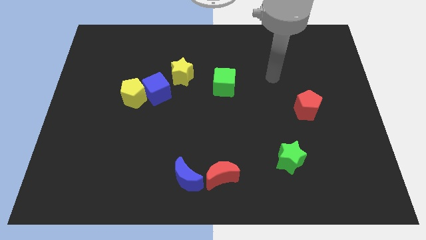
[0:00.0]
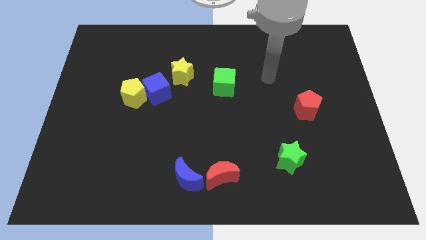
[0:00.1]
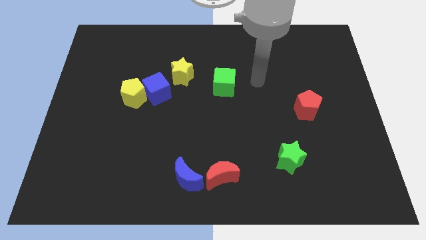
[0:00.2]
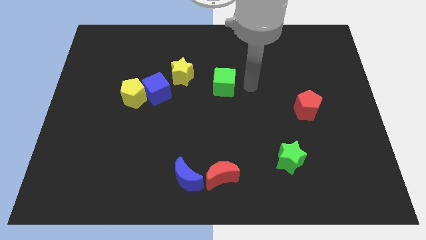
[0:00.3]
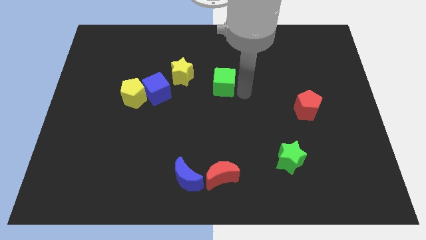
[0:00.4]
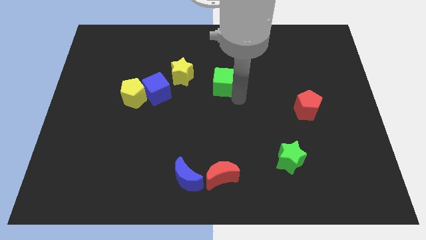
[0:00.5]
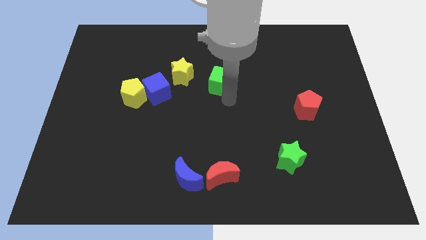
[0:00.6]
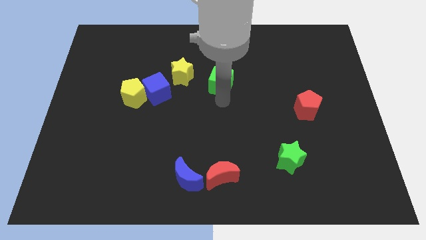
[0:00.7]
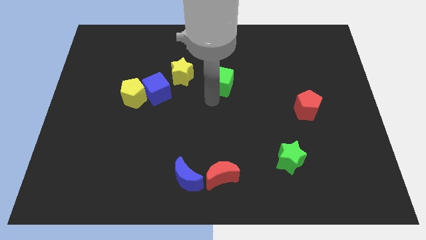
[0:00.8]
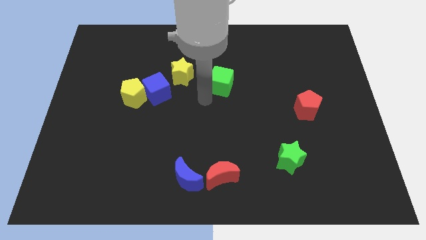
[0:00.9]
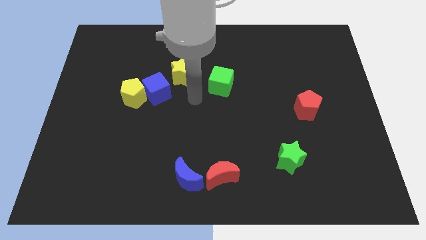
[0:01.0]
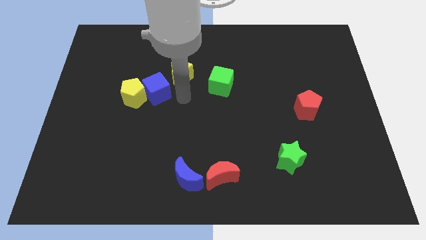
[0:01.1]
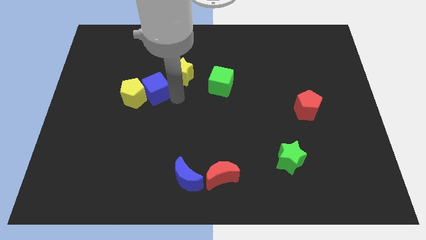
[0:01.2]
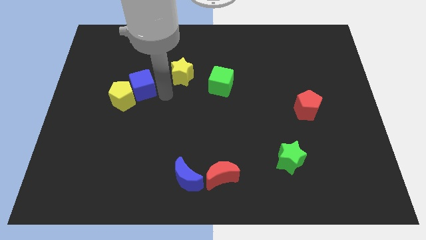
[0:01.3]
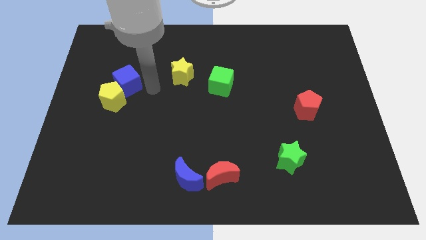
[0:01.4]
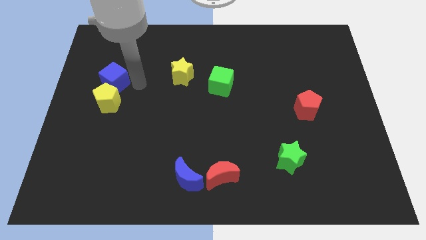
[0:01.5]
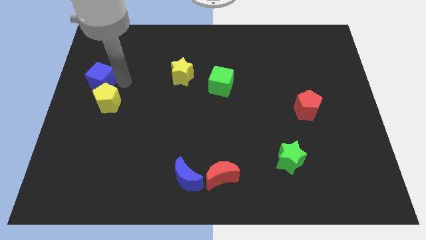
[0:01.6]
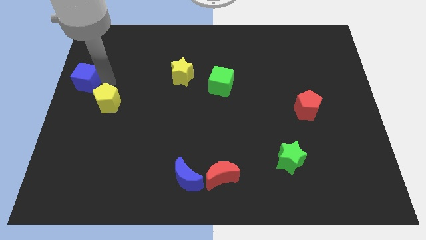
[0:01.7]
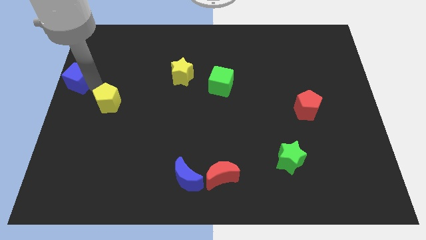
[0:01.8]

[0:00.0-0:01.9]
pull the yellow pentagon apart from the blue cube

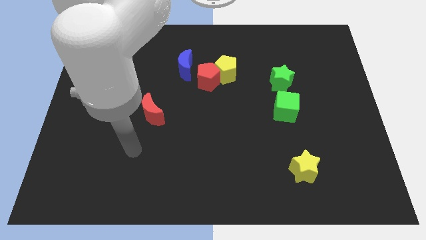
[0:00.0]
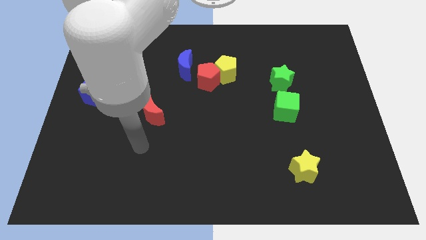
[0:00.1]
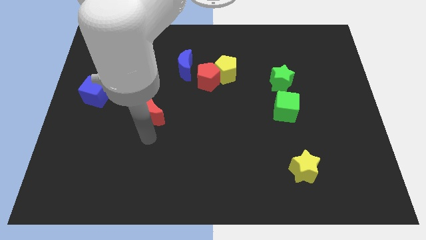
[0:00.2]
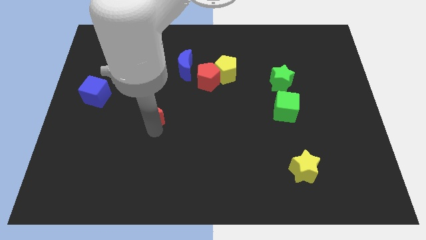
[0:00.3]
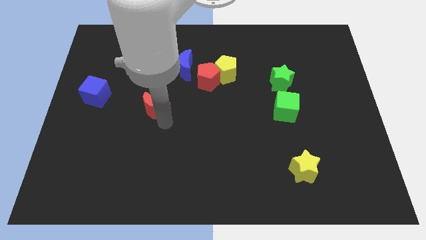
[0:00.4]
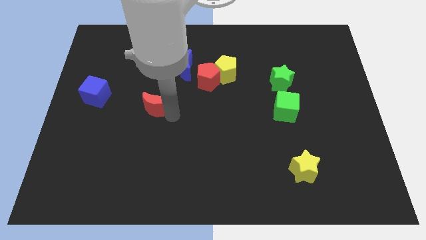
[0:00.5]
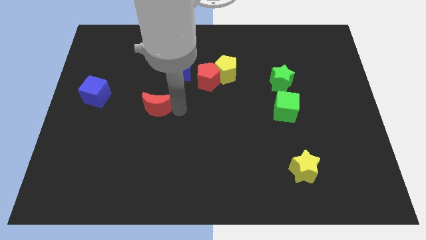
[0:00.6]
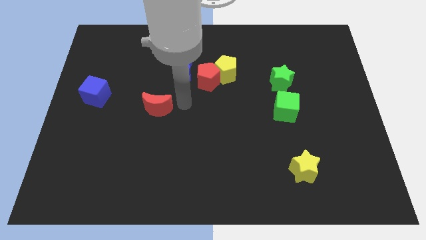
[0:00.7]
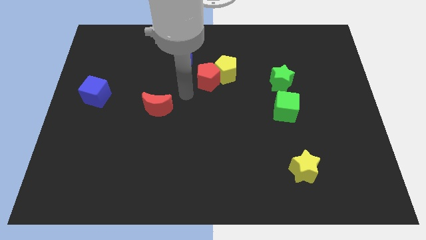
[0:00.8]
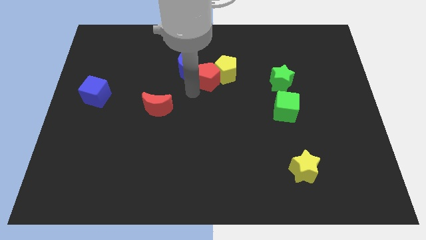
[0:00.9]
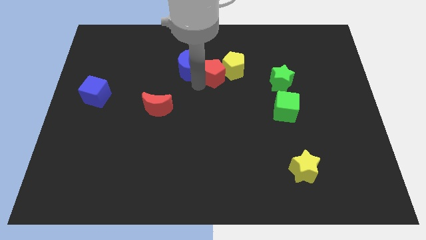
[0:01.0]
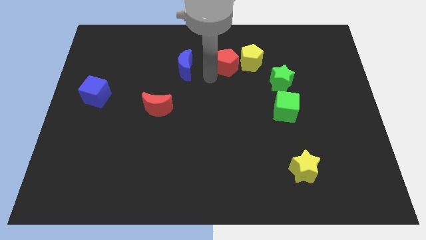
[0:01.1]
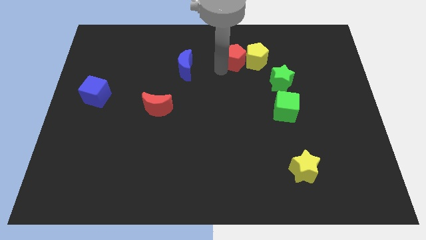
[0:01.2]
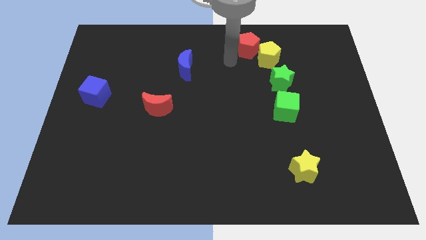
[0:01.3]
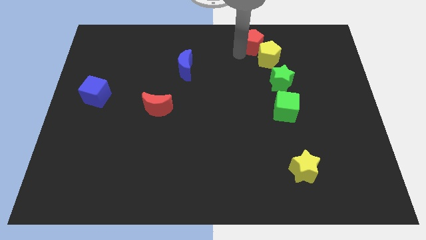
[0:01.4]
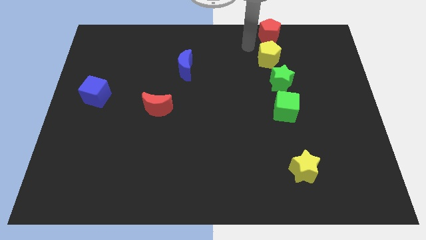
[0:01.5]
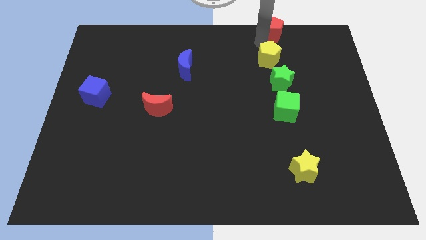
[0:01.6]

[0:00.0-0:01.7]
separate the yellow pentagon from the red pentagon

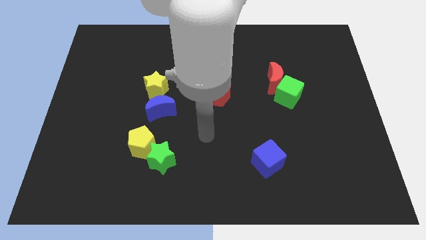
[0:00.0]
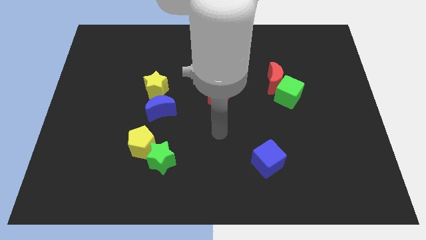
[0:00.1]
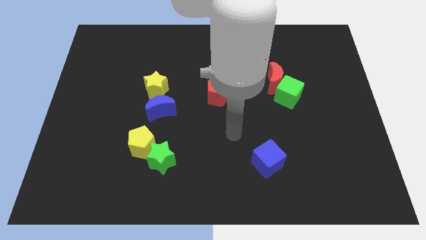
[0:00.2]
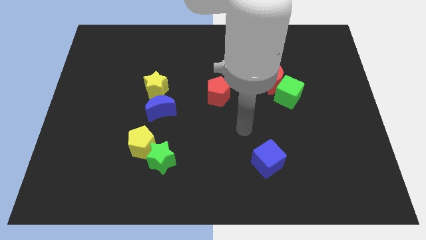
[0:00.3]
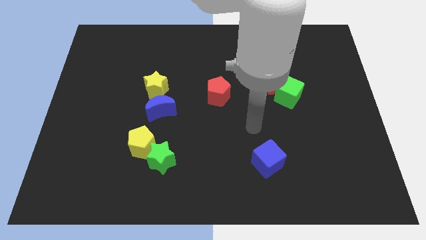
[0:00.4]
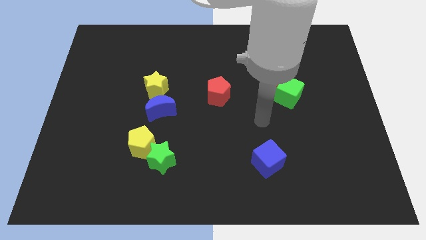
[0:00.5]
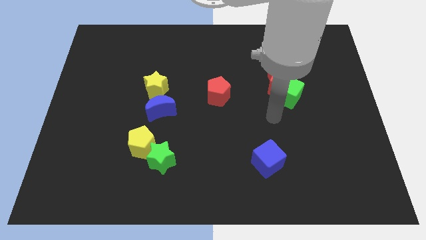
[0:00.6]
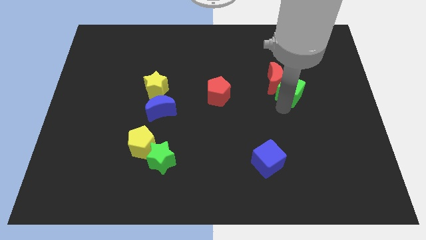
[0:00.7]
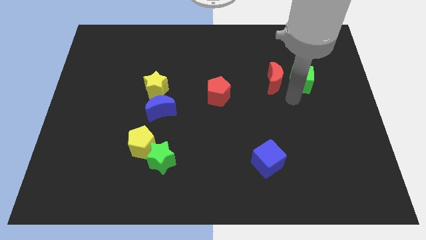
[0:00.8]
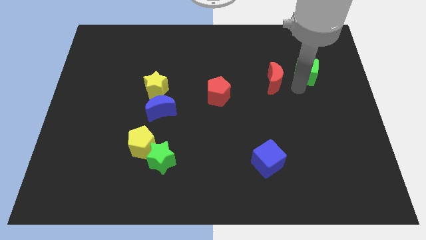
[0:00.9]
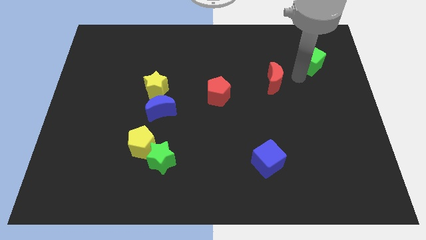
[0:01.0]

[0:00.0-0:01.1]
separate the red moon from the green cube

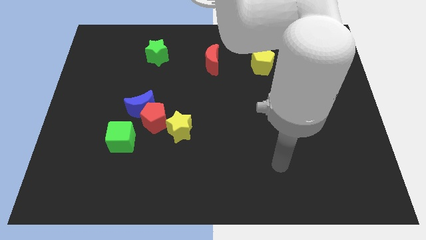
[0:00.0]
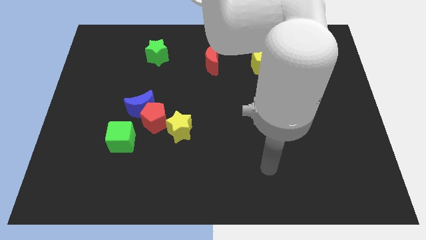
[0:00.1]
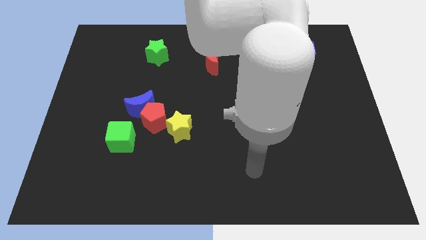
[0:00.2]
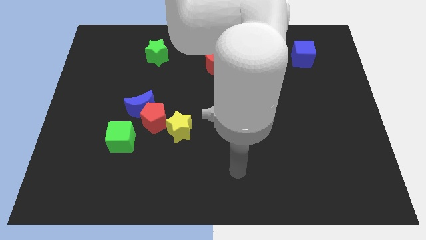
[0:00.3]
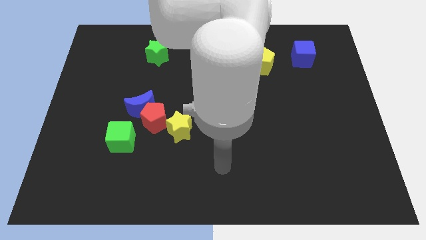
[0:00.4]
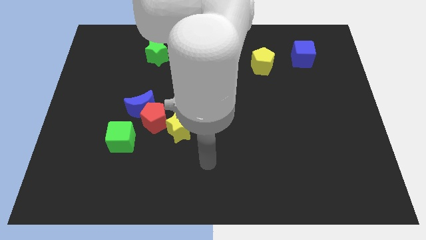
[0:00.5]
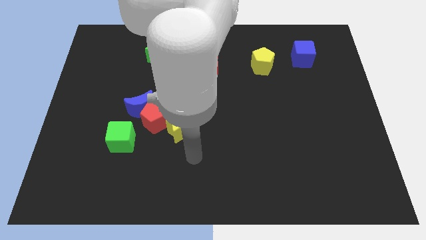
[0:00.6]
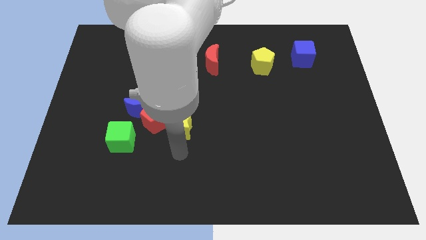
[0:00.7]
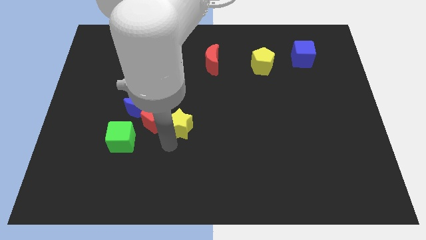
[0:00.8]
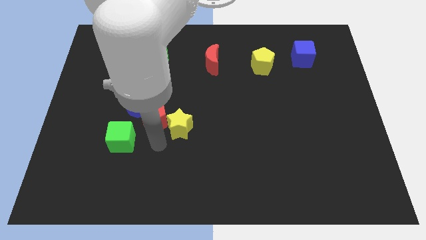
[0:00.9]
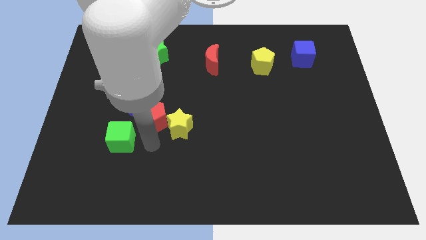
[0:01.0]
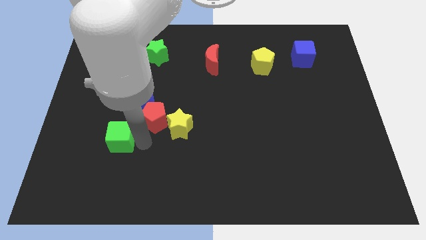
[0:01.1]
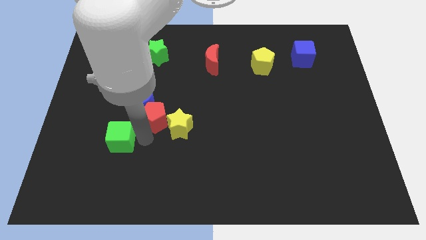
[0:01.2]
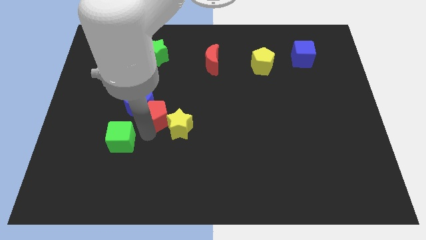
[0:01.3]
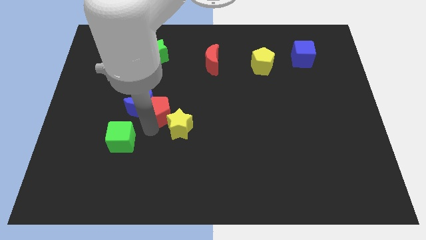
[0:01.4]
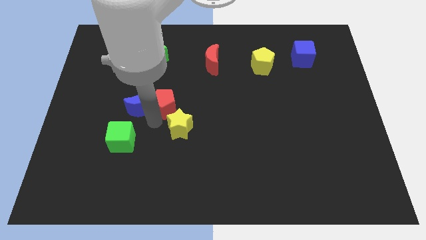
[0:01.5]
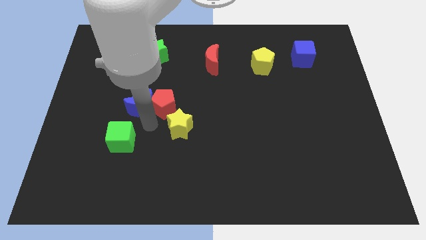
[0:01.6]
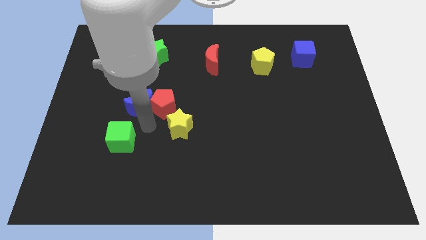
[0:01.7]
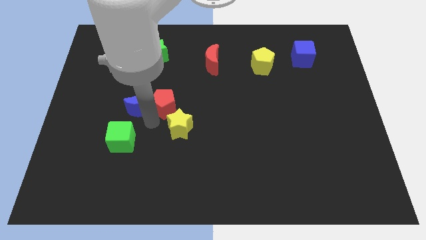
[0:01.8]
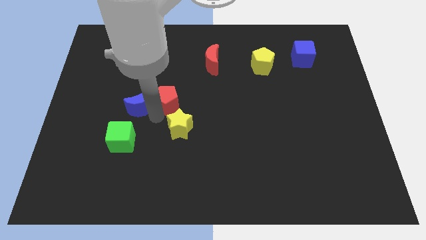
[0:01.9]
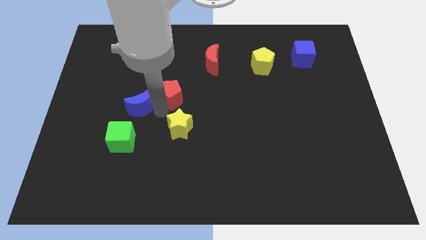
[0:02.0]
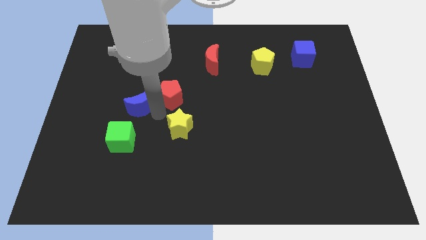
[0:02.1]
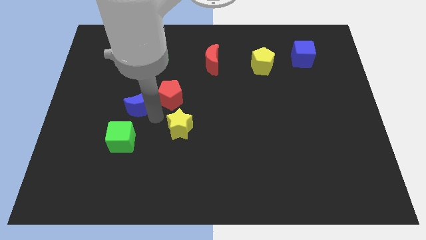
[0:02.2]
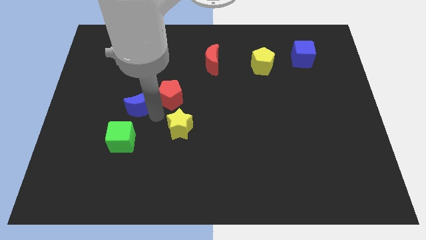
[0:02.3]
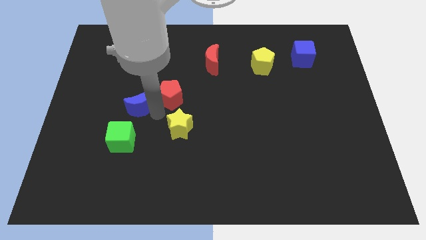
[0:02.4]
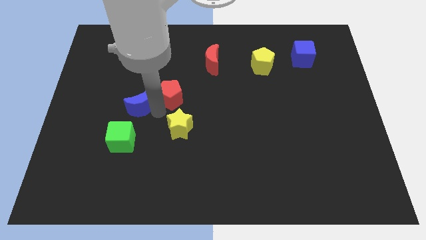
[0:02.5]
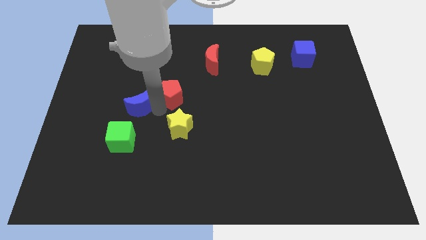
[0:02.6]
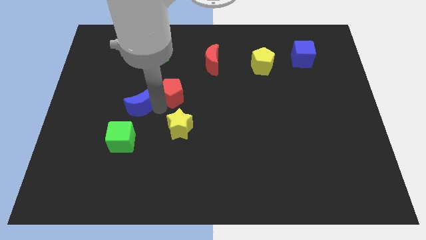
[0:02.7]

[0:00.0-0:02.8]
pull the red pentagon apart from the blue moon, yellow star, and green cube

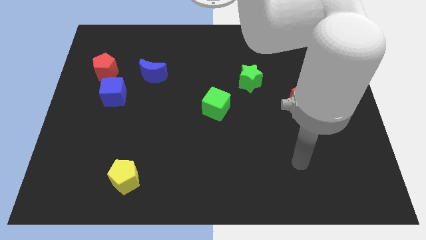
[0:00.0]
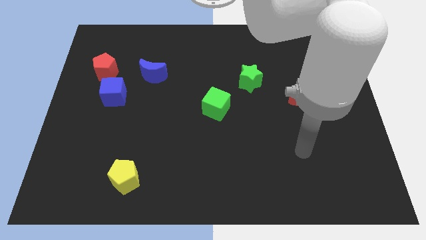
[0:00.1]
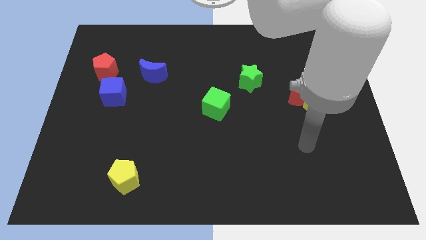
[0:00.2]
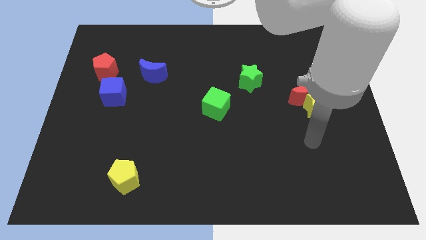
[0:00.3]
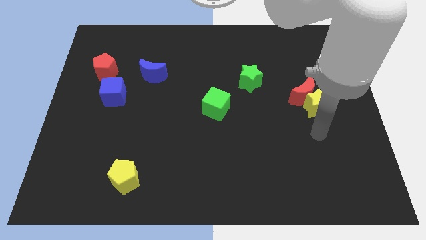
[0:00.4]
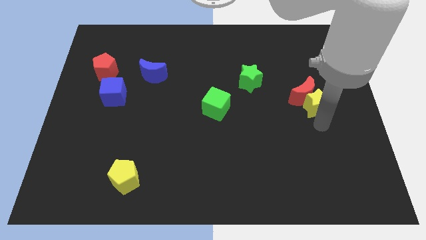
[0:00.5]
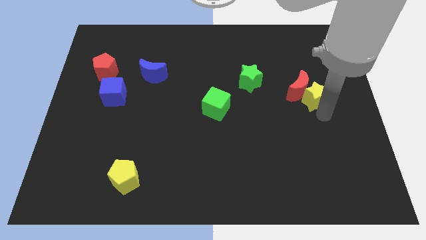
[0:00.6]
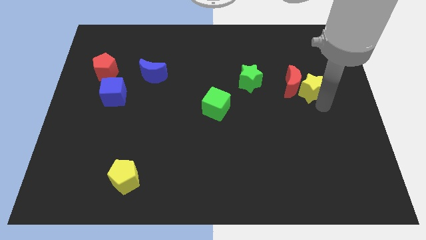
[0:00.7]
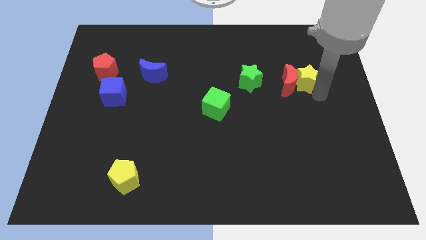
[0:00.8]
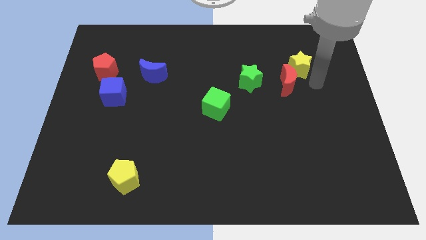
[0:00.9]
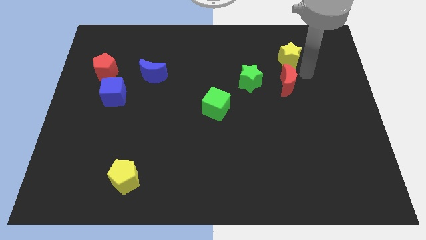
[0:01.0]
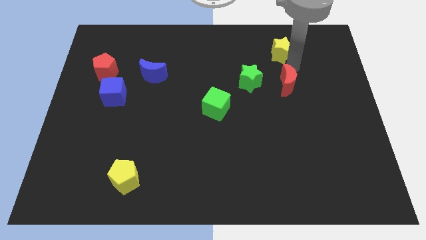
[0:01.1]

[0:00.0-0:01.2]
move the red moon away from the yellow star

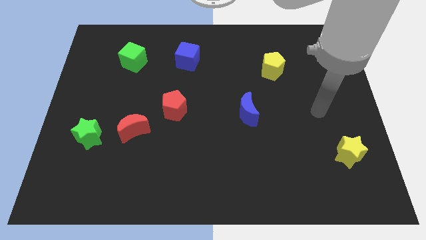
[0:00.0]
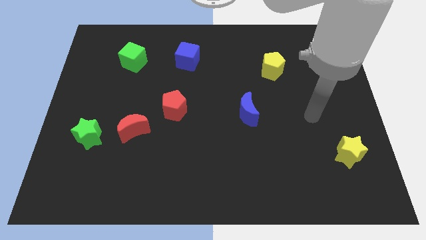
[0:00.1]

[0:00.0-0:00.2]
pull the red moon apart from the green star

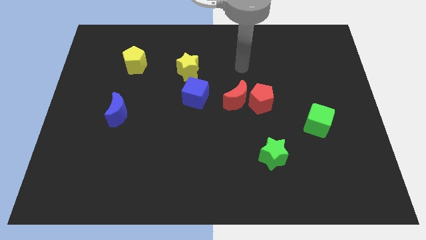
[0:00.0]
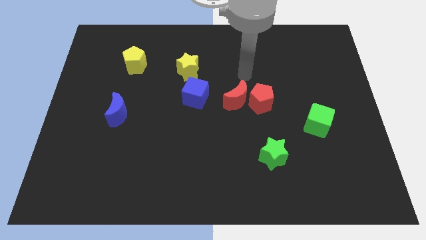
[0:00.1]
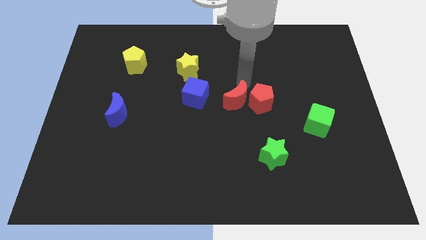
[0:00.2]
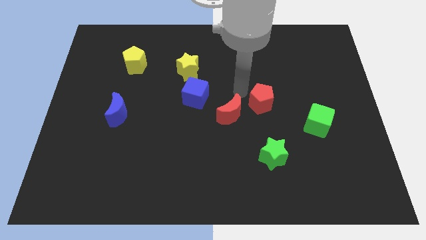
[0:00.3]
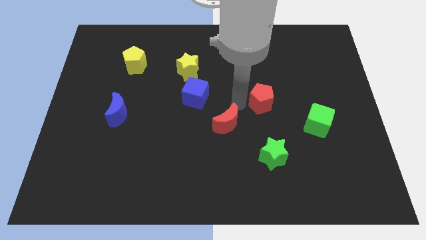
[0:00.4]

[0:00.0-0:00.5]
pull the red pentagon apart from the red moon
